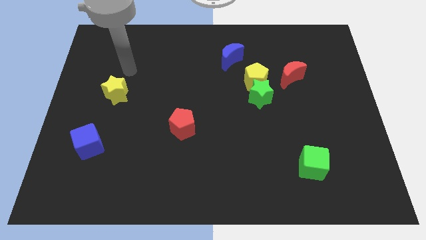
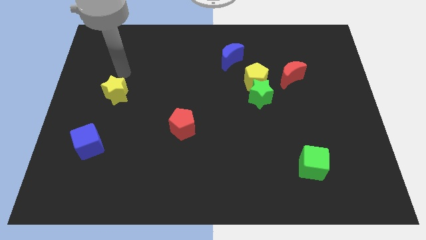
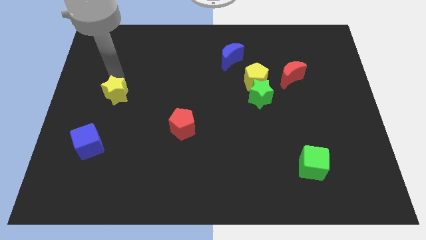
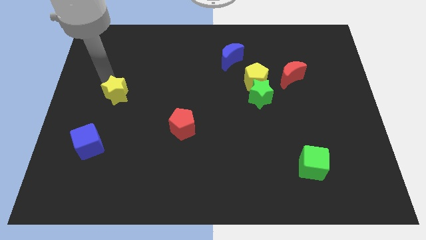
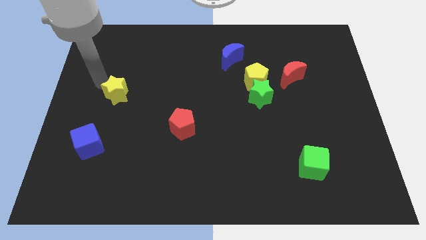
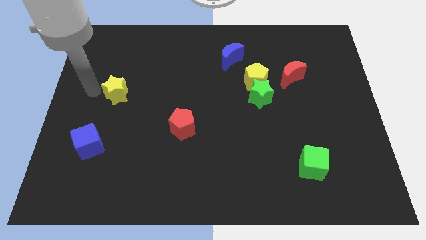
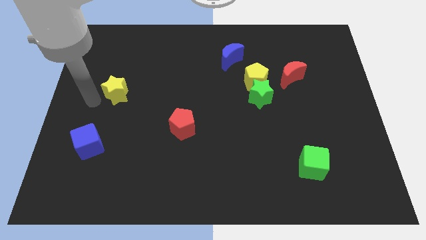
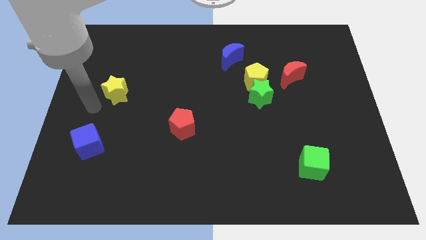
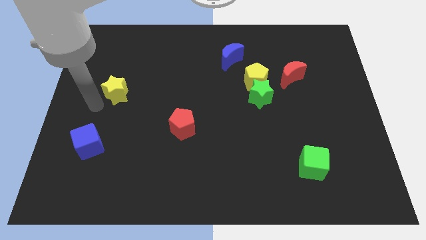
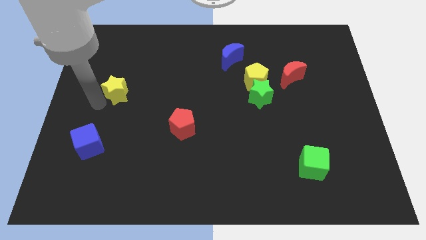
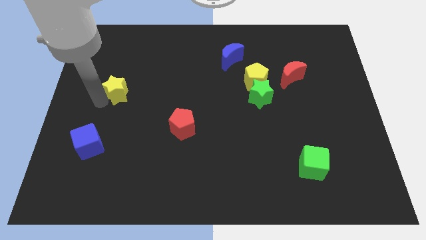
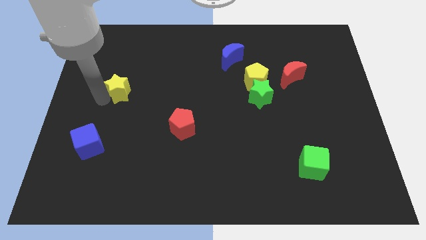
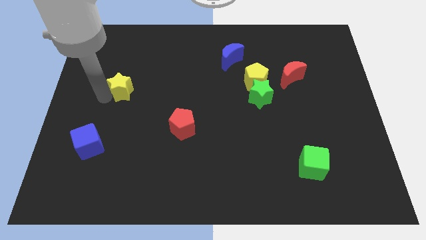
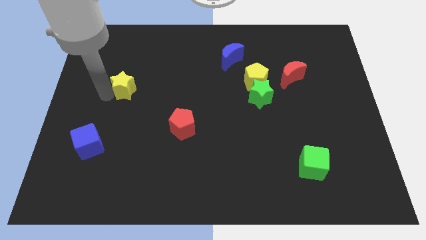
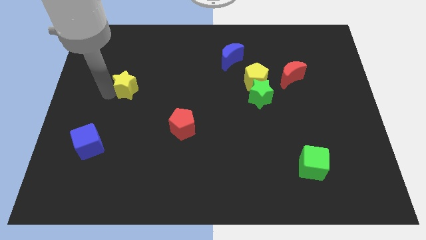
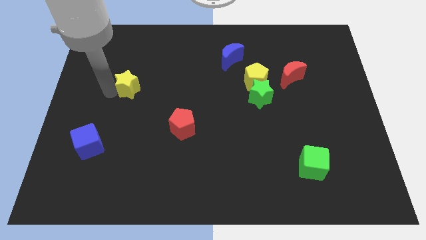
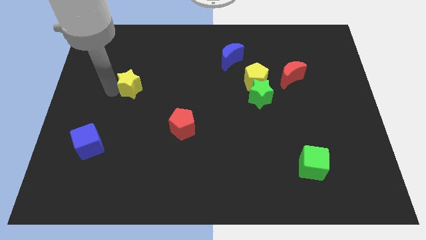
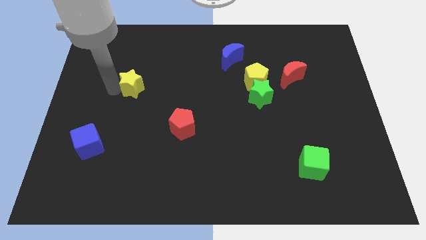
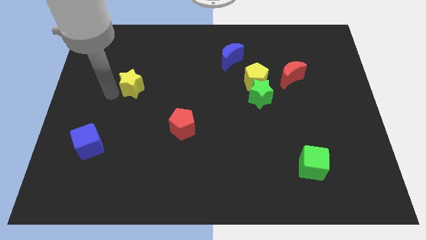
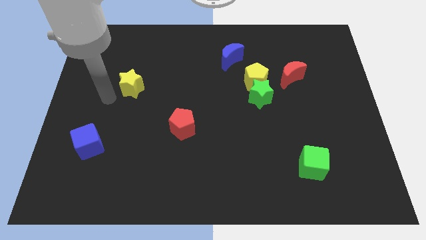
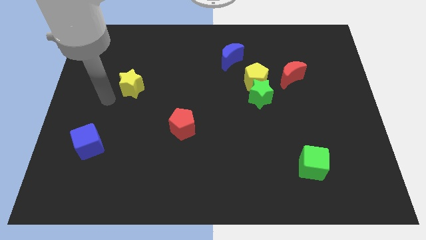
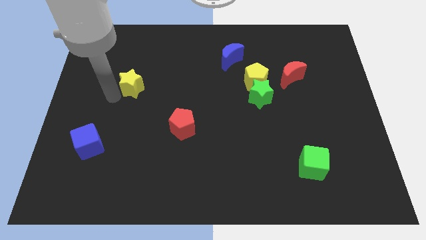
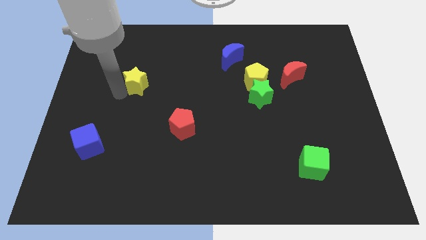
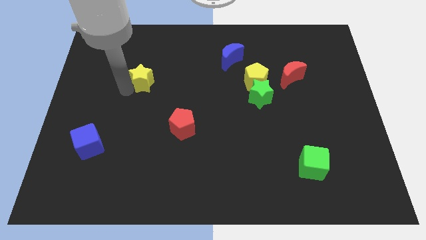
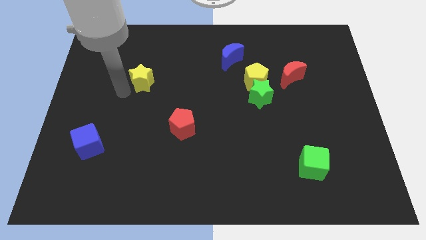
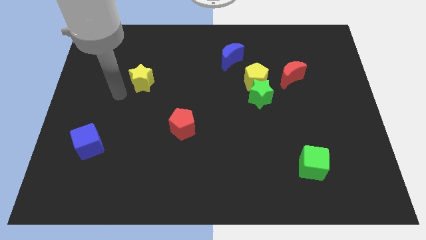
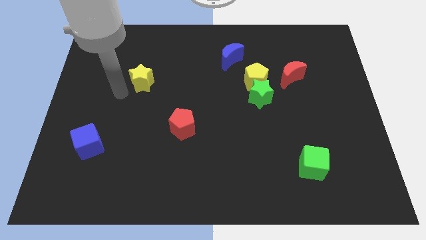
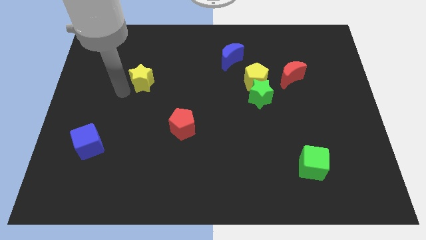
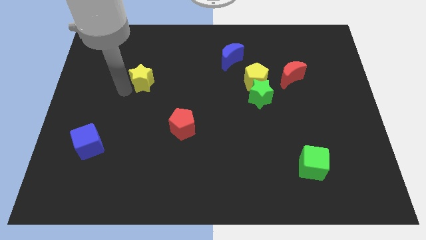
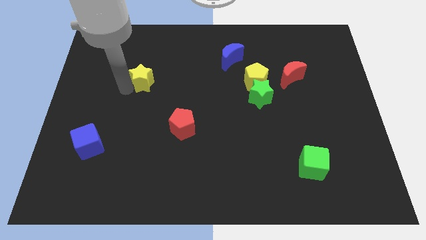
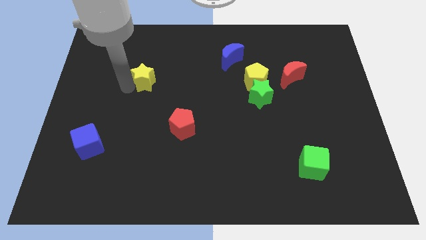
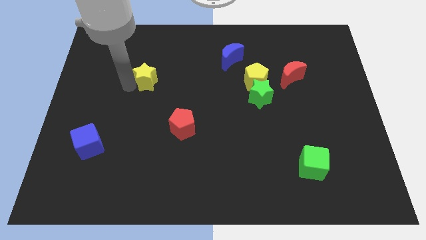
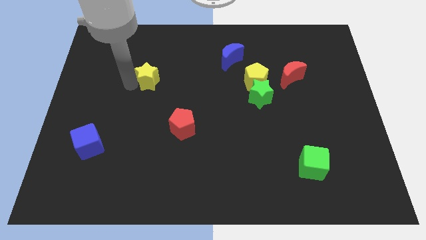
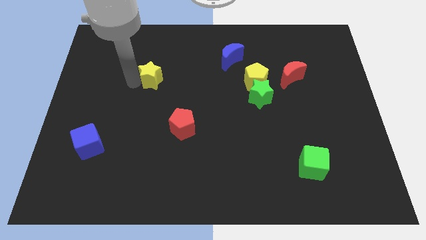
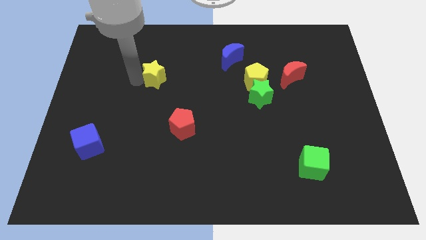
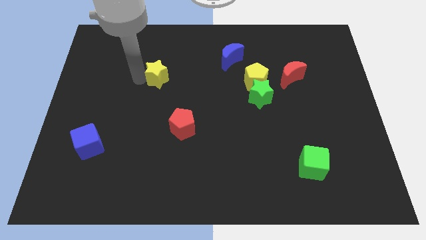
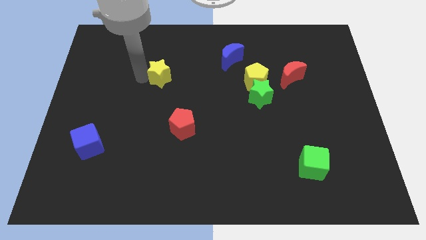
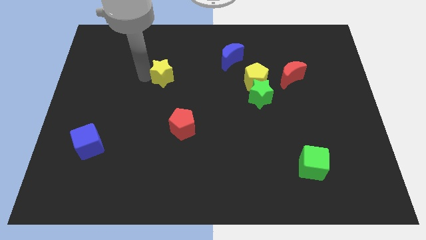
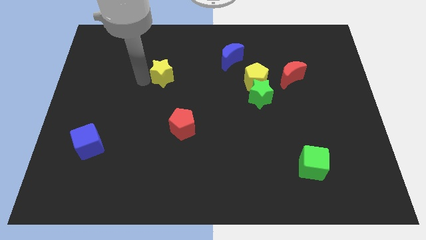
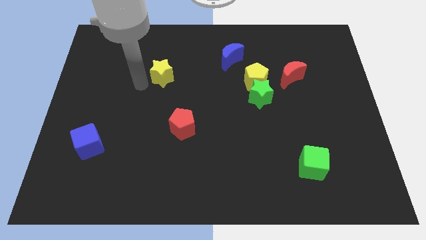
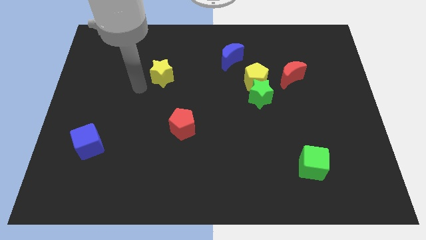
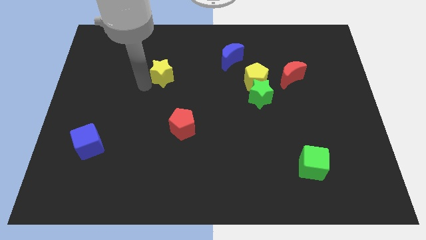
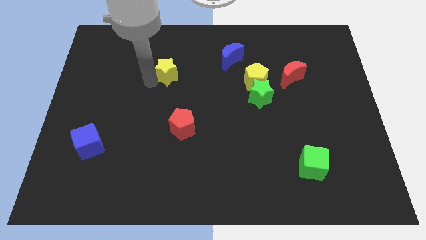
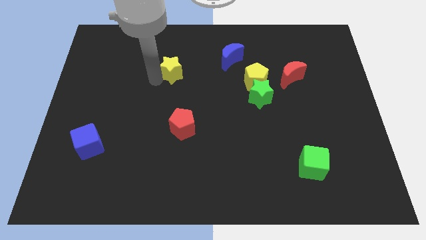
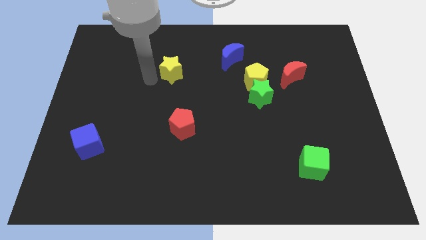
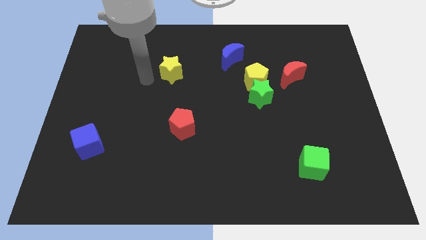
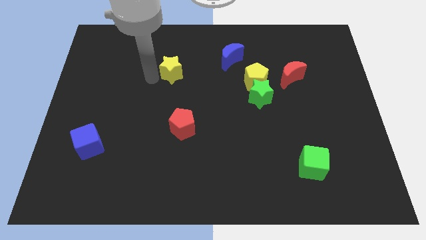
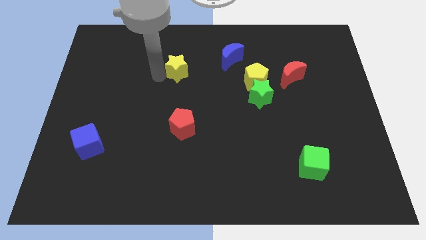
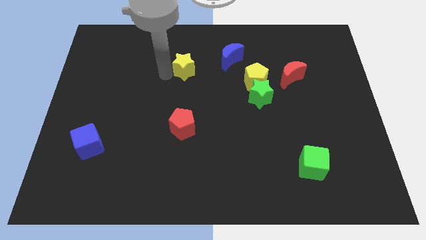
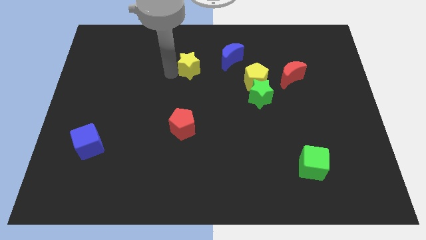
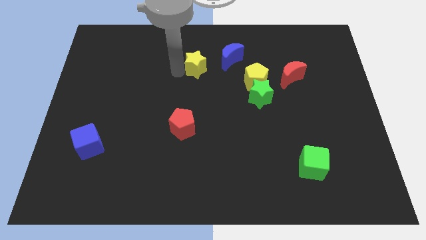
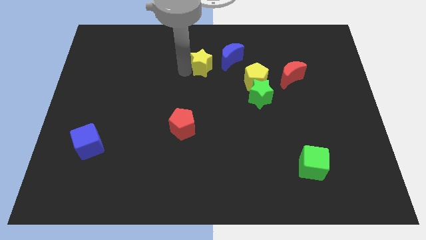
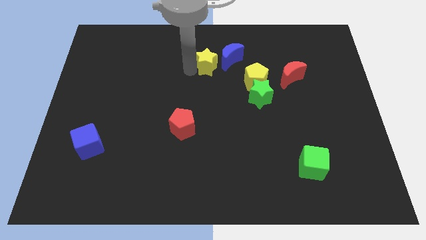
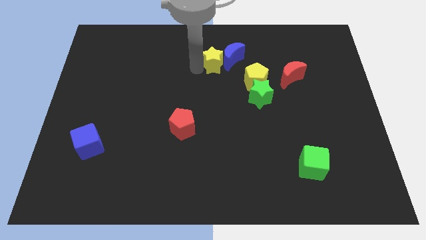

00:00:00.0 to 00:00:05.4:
slide the yellow star next to the blue moon

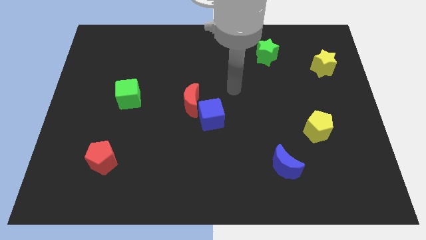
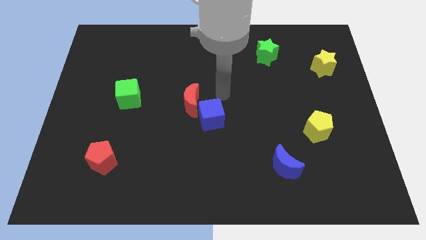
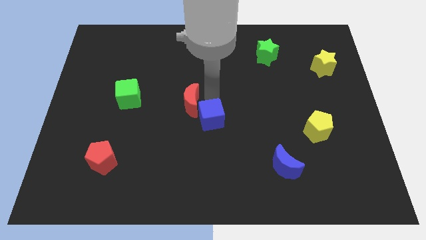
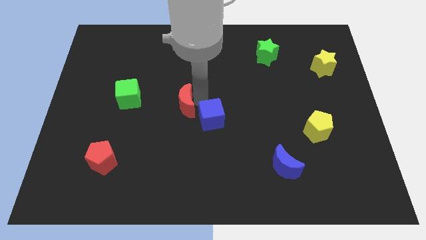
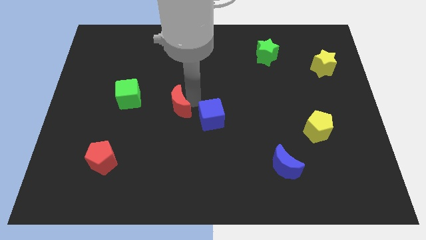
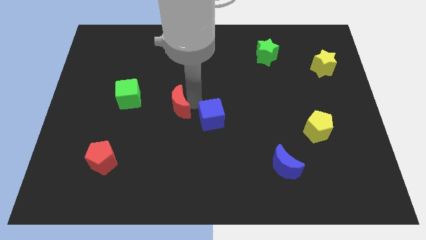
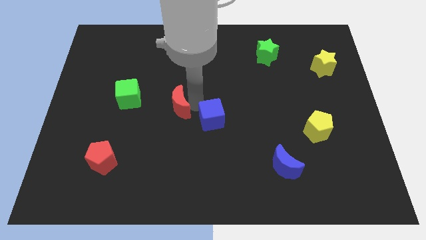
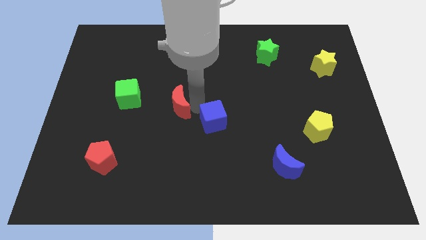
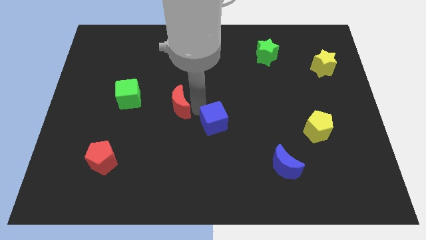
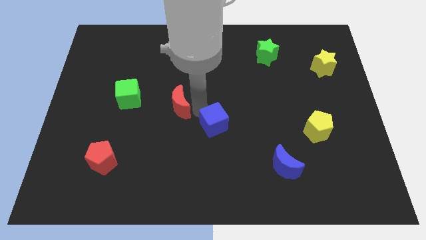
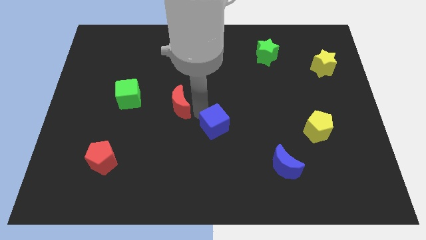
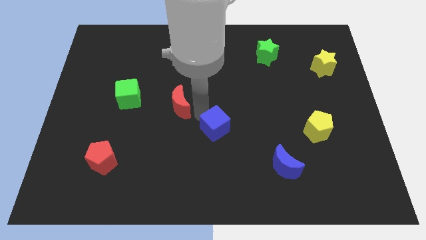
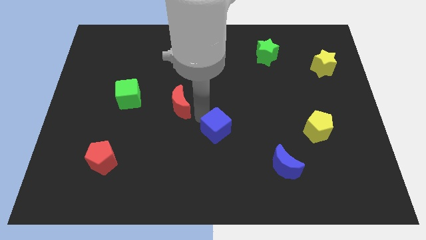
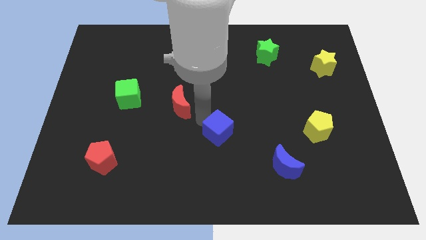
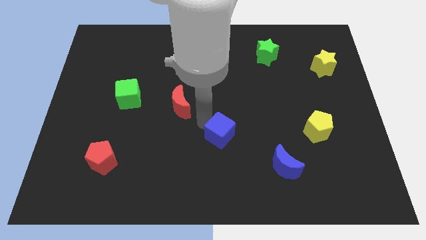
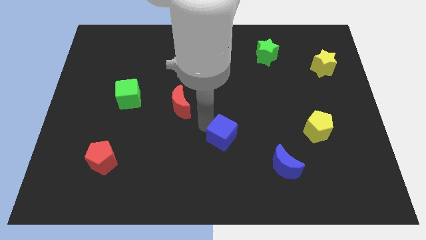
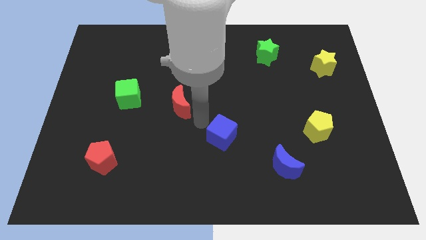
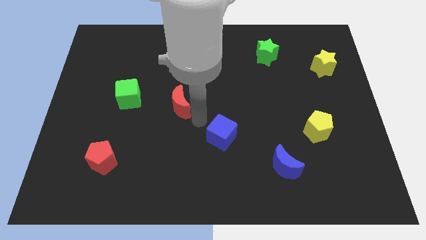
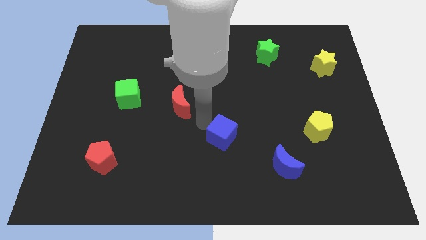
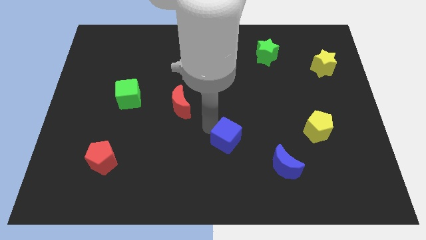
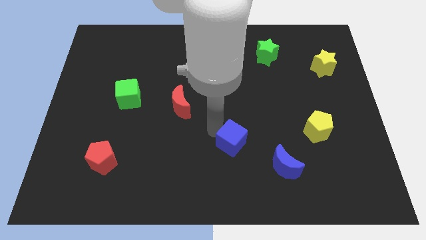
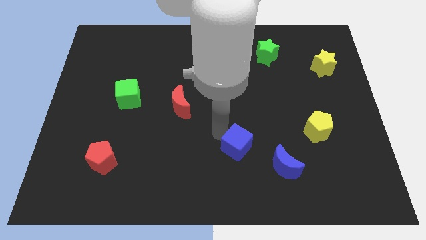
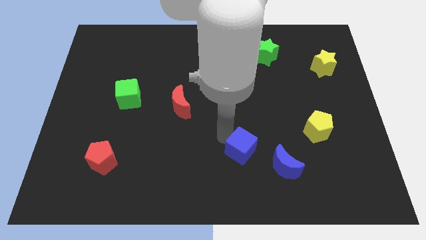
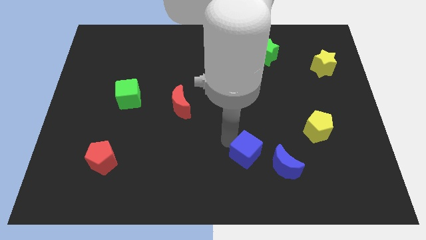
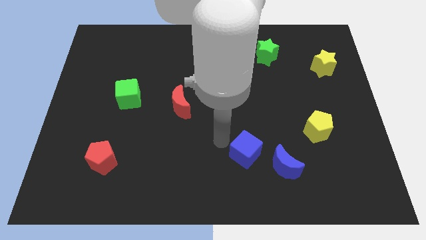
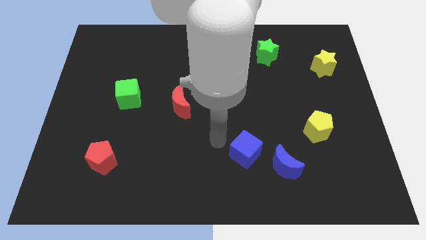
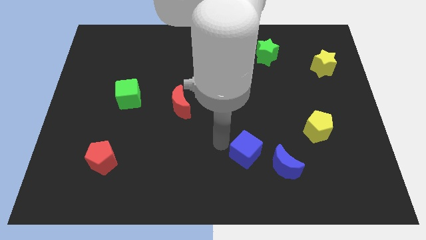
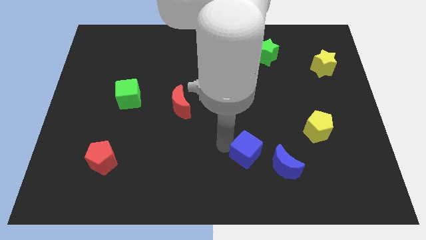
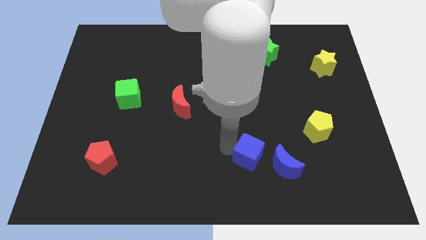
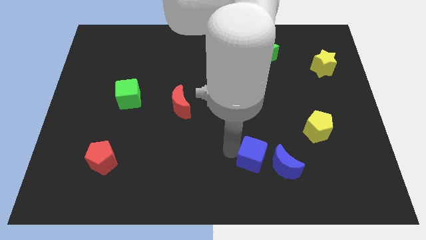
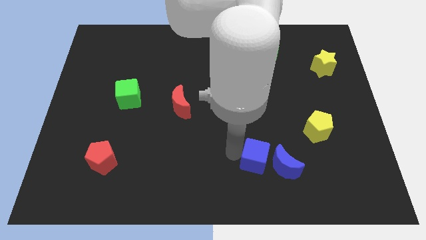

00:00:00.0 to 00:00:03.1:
move the blue cube to the blue moon
